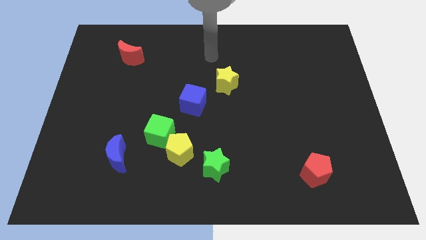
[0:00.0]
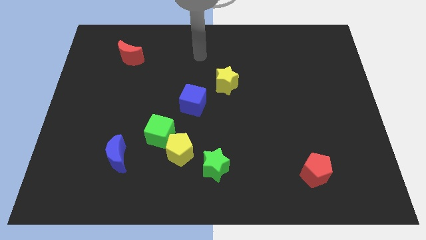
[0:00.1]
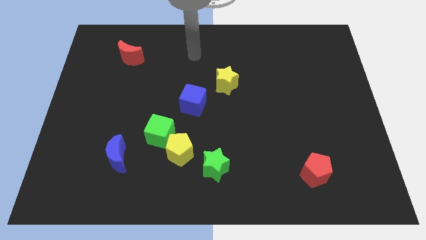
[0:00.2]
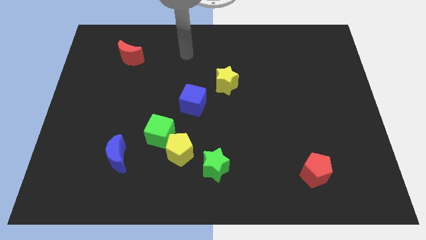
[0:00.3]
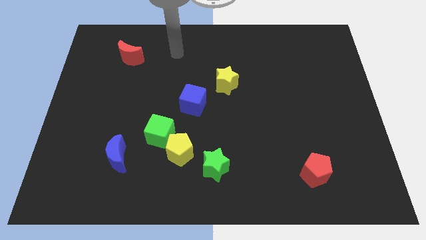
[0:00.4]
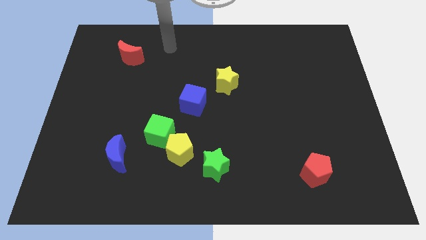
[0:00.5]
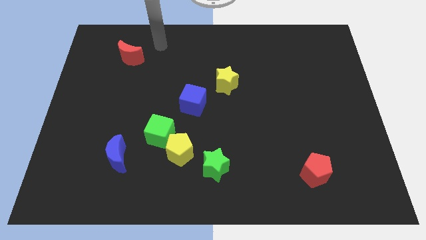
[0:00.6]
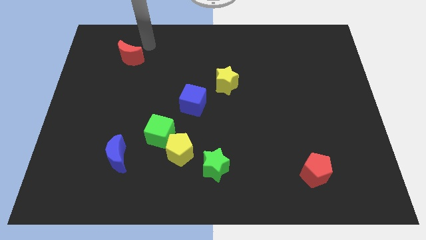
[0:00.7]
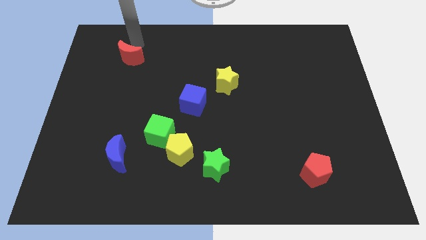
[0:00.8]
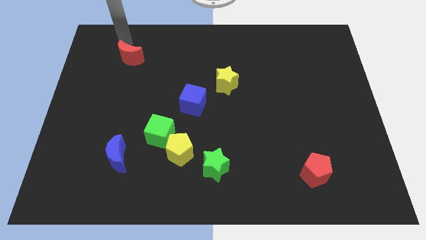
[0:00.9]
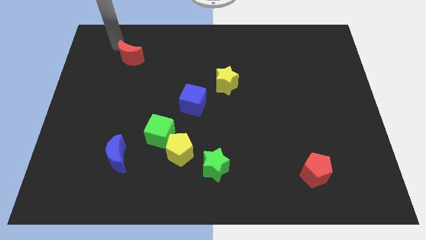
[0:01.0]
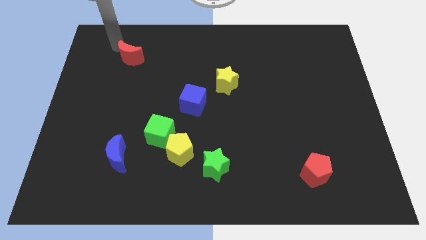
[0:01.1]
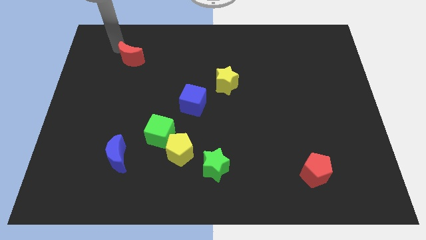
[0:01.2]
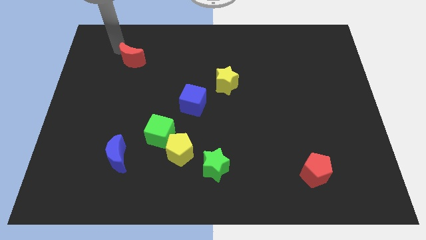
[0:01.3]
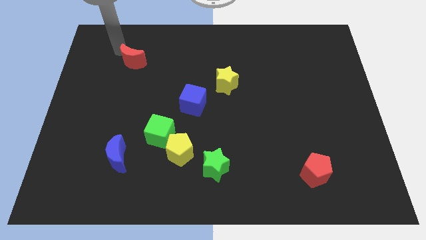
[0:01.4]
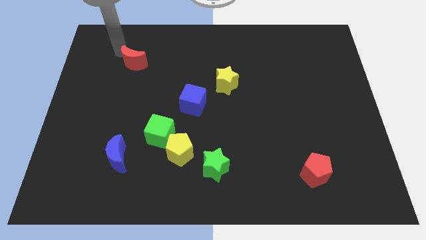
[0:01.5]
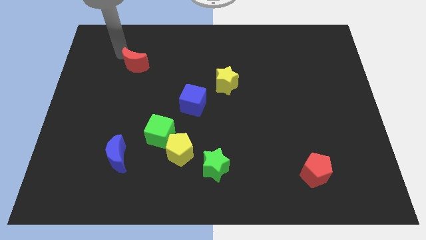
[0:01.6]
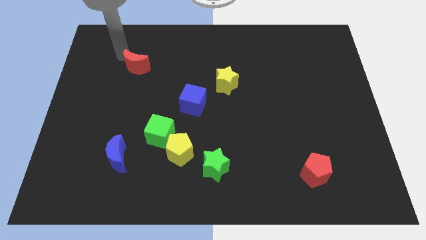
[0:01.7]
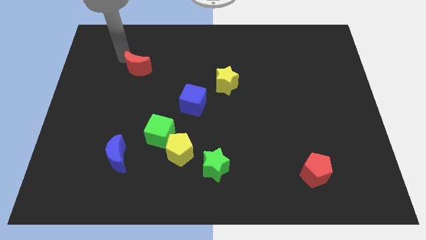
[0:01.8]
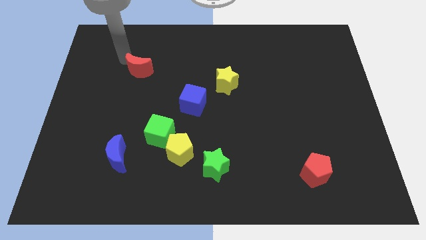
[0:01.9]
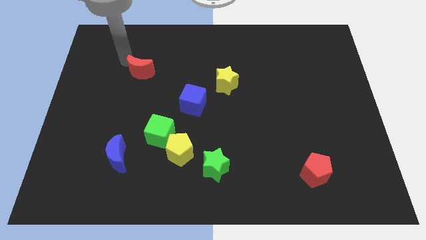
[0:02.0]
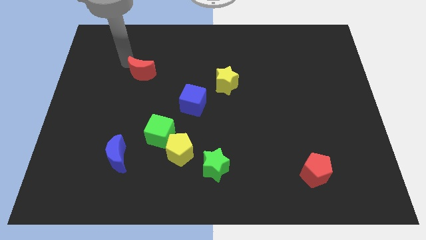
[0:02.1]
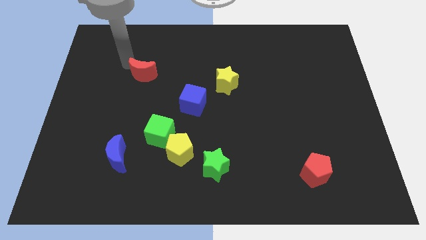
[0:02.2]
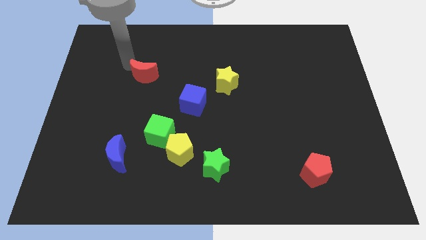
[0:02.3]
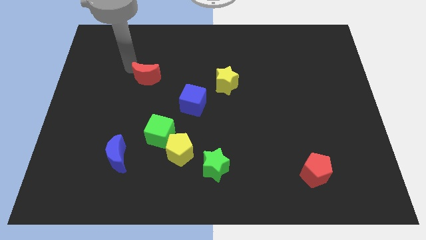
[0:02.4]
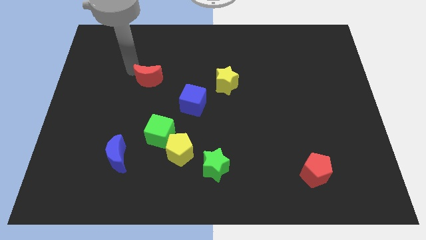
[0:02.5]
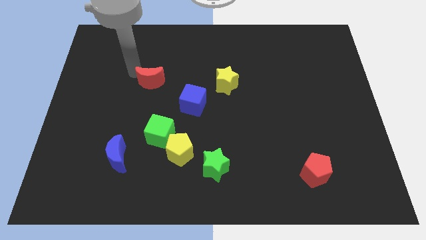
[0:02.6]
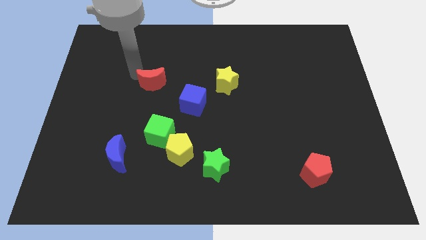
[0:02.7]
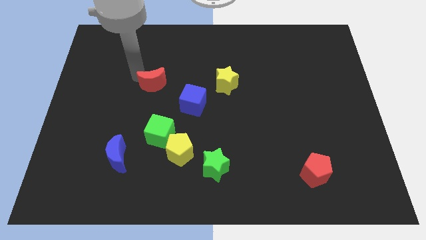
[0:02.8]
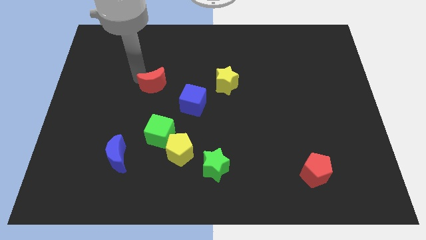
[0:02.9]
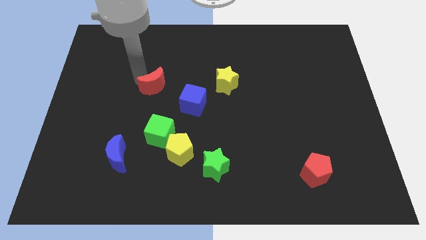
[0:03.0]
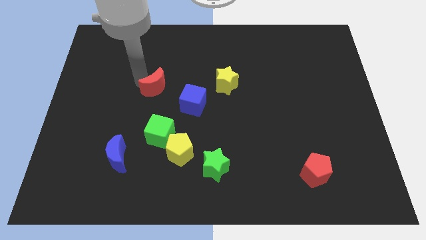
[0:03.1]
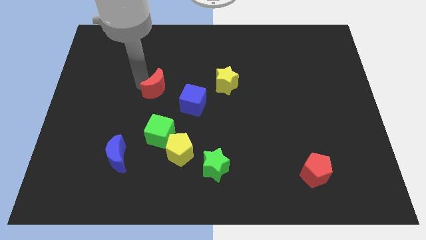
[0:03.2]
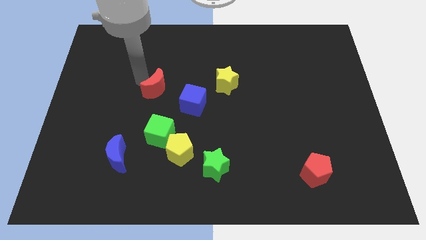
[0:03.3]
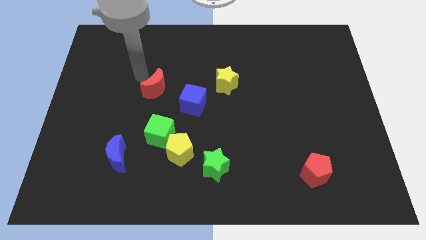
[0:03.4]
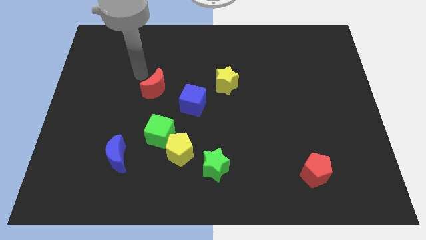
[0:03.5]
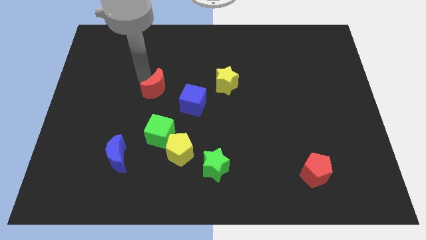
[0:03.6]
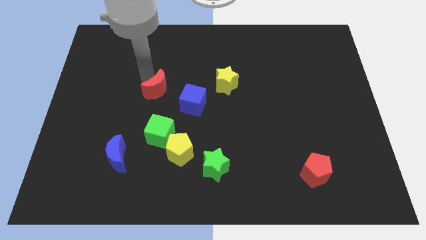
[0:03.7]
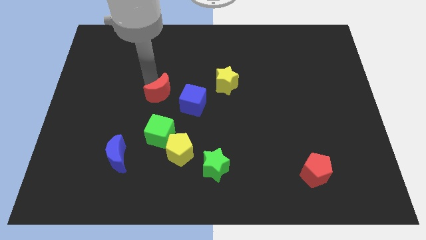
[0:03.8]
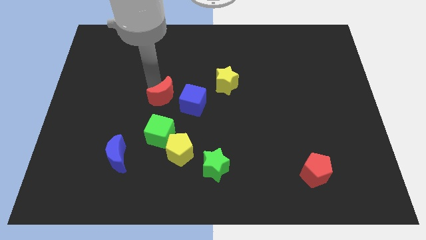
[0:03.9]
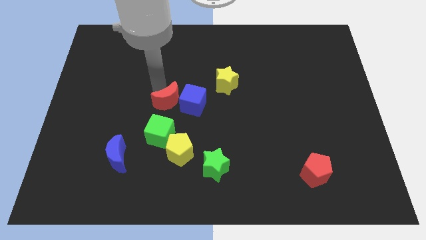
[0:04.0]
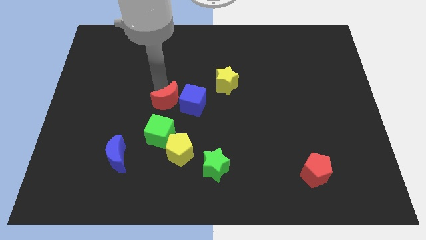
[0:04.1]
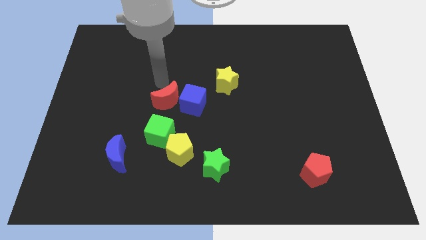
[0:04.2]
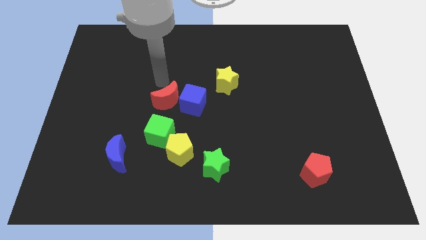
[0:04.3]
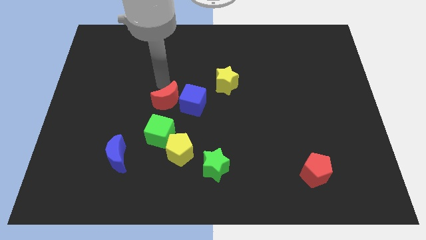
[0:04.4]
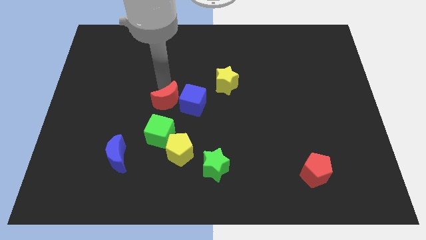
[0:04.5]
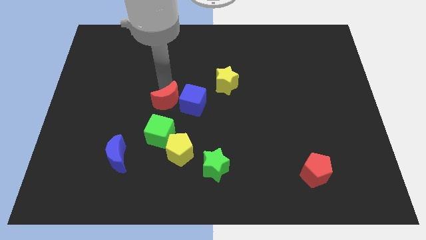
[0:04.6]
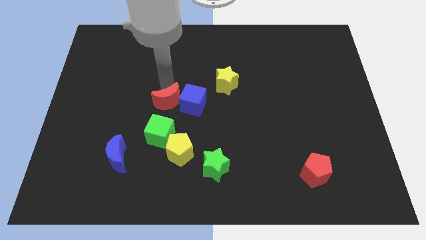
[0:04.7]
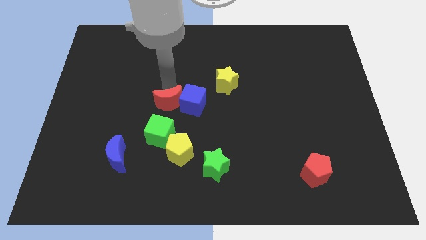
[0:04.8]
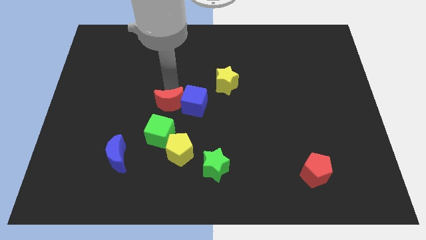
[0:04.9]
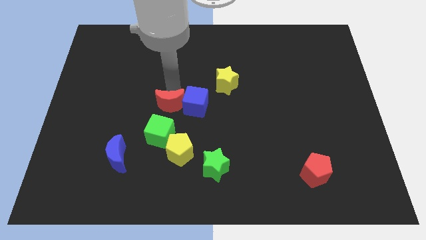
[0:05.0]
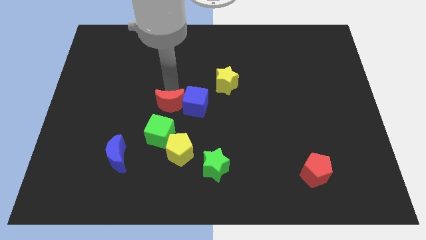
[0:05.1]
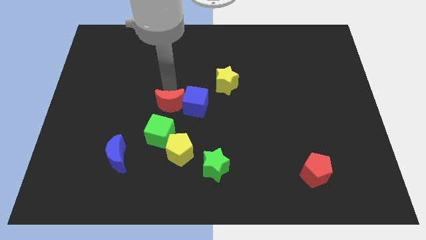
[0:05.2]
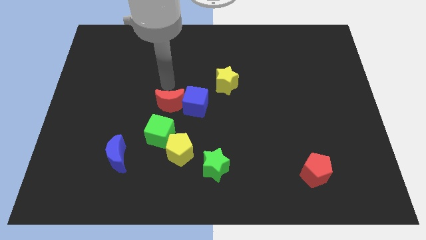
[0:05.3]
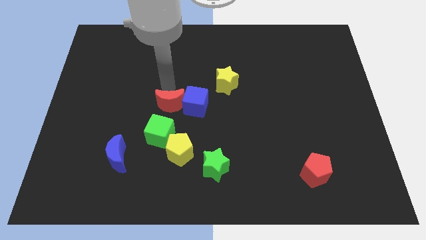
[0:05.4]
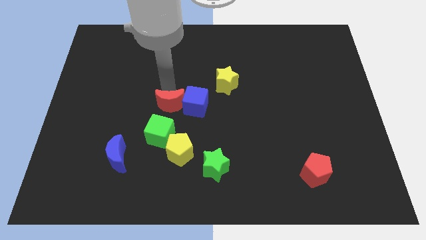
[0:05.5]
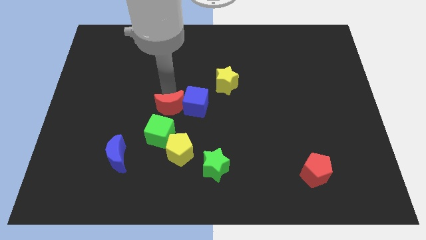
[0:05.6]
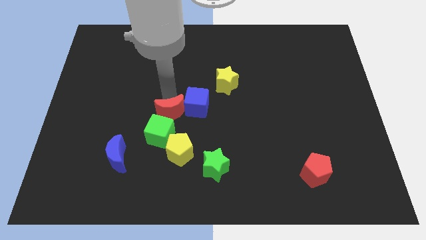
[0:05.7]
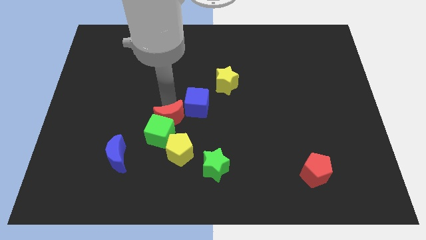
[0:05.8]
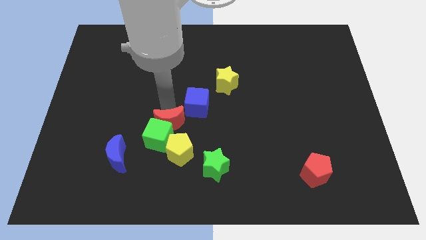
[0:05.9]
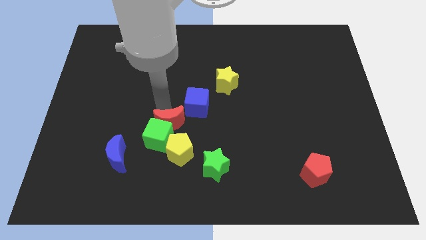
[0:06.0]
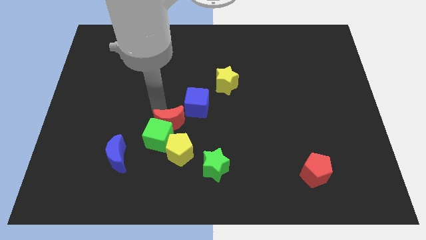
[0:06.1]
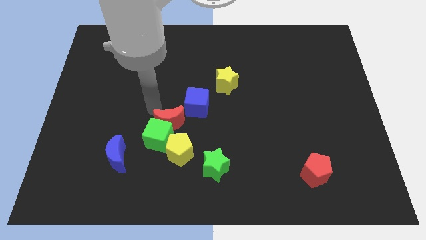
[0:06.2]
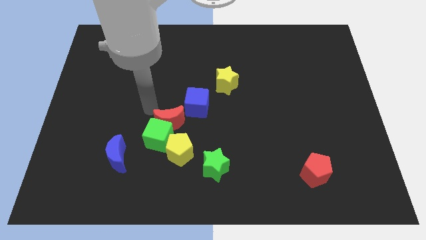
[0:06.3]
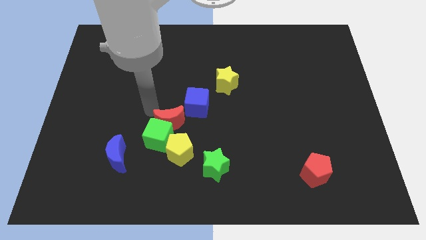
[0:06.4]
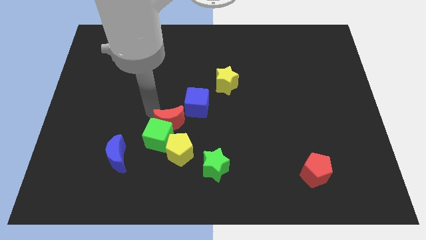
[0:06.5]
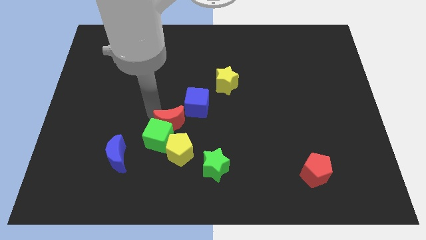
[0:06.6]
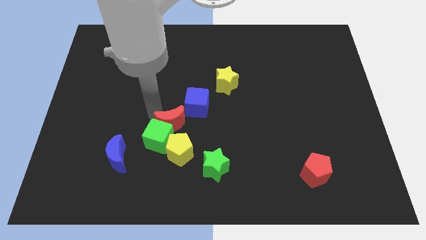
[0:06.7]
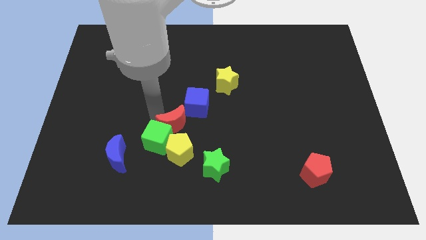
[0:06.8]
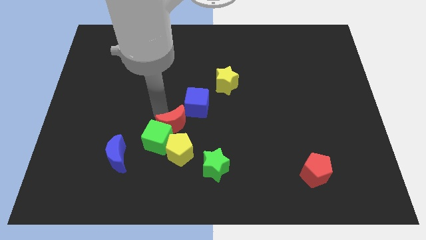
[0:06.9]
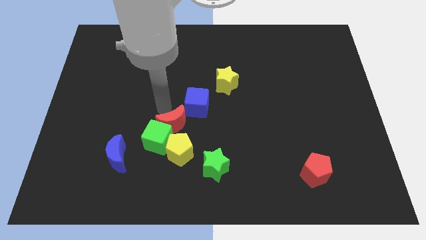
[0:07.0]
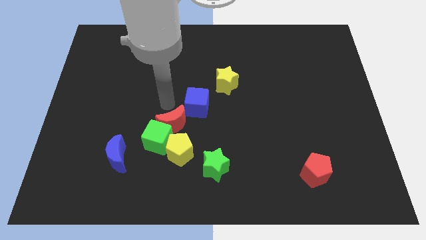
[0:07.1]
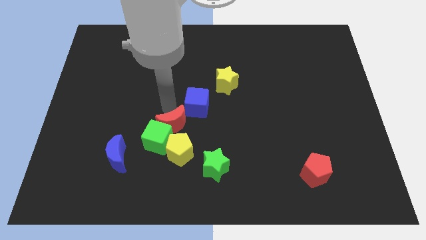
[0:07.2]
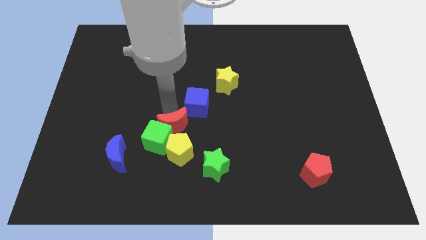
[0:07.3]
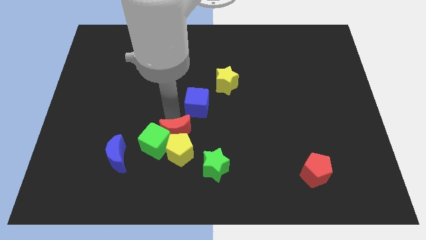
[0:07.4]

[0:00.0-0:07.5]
put the red moon to the yellow pentagon

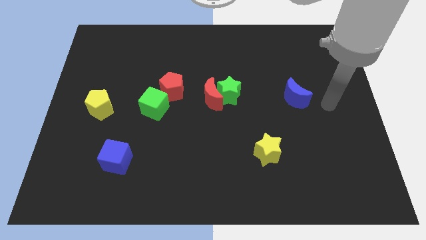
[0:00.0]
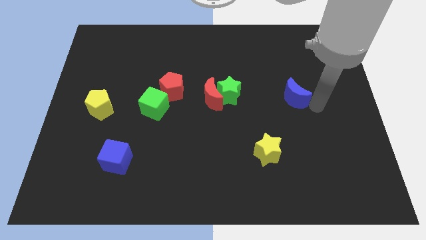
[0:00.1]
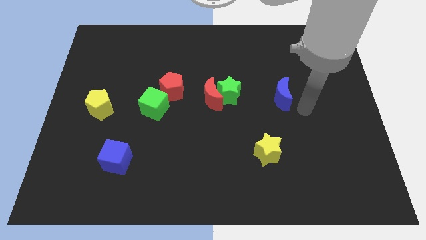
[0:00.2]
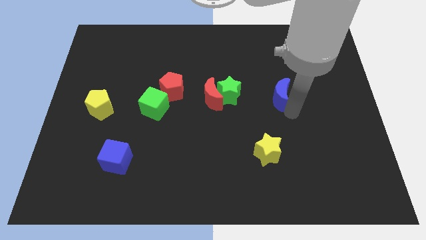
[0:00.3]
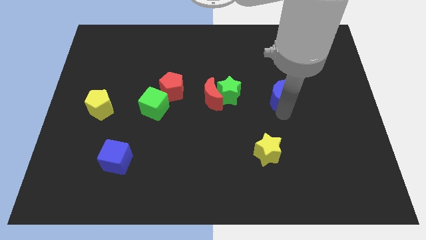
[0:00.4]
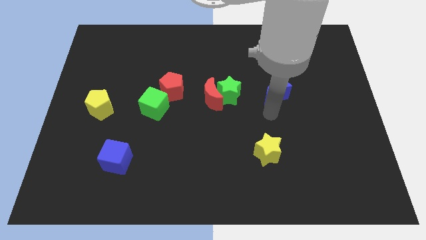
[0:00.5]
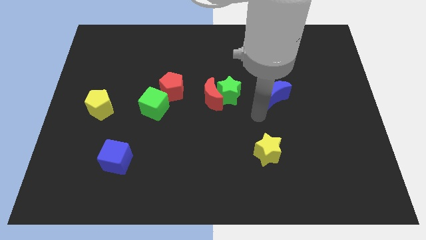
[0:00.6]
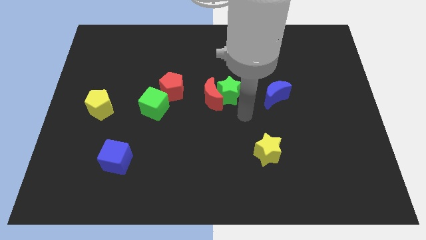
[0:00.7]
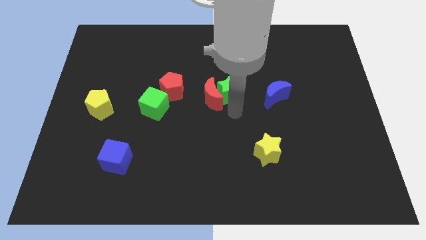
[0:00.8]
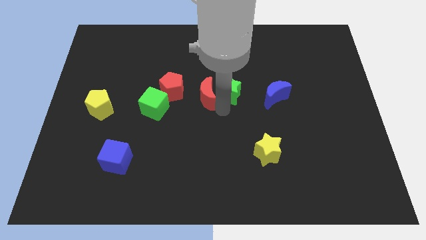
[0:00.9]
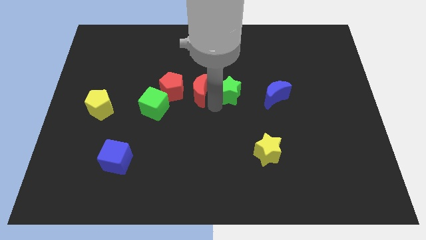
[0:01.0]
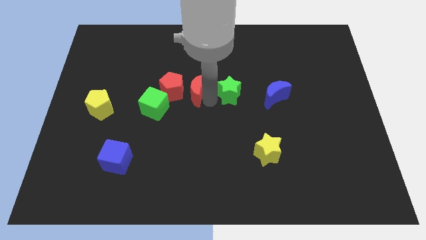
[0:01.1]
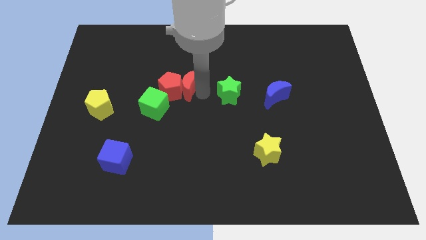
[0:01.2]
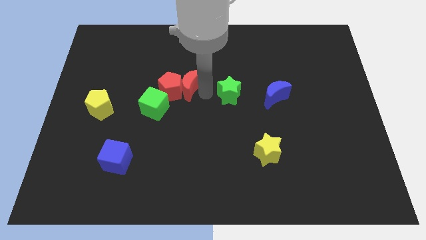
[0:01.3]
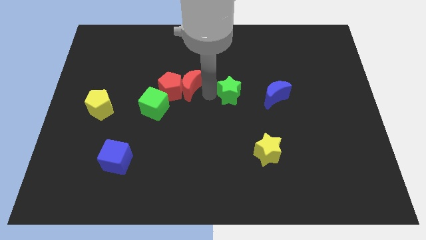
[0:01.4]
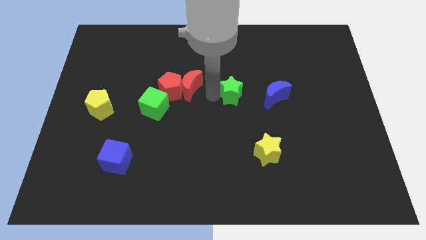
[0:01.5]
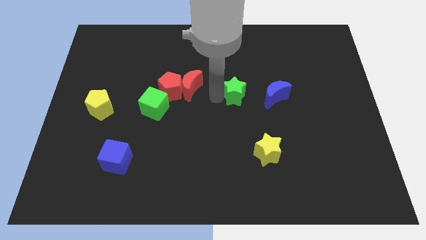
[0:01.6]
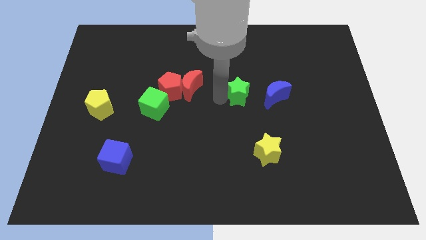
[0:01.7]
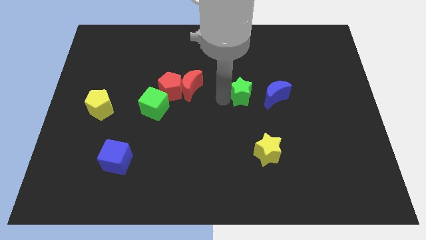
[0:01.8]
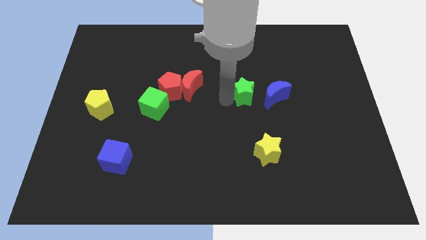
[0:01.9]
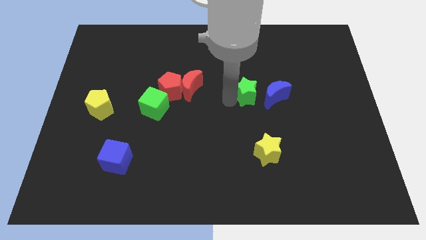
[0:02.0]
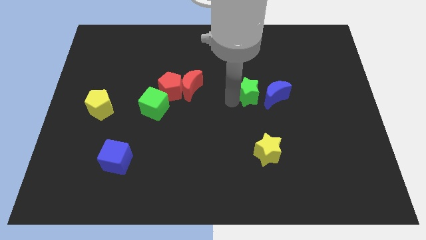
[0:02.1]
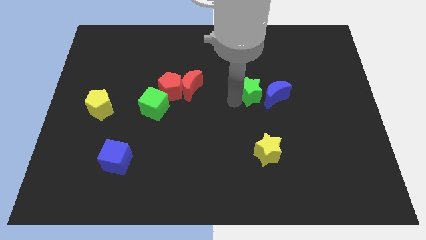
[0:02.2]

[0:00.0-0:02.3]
put the green star next to the blue moon
